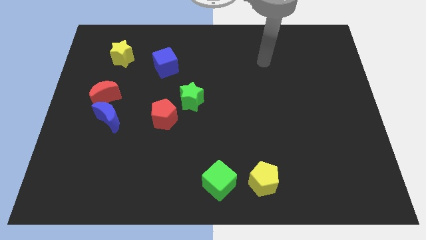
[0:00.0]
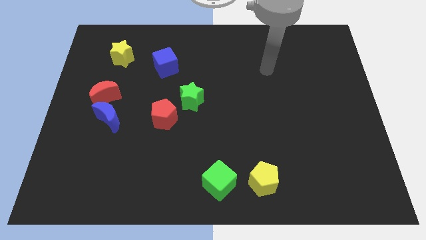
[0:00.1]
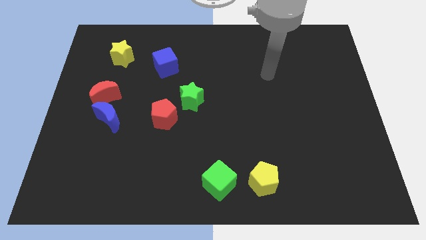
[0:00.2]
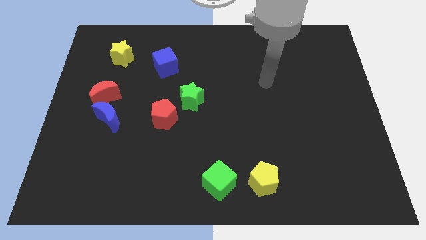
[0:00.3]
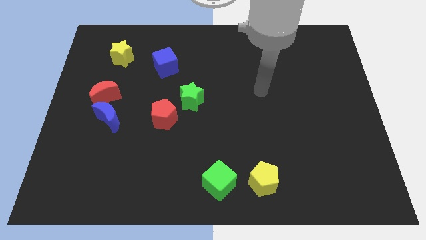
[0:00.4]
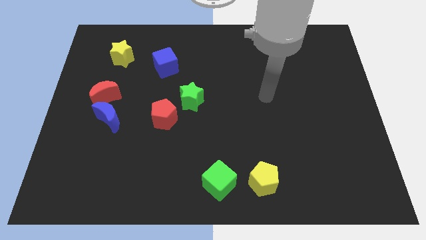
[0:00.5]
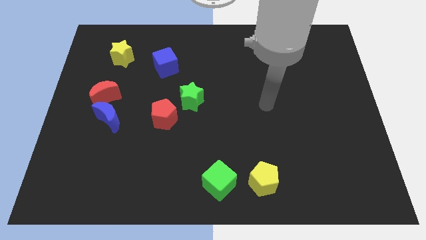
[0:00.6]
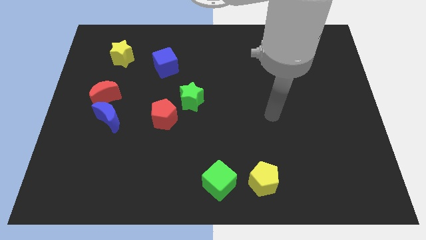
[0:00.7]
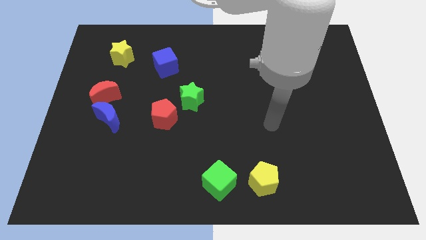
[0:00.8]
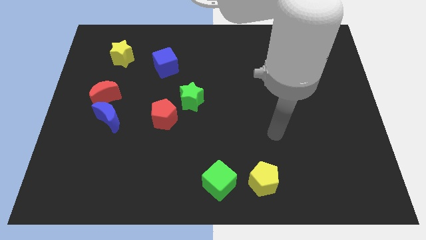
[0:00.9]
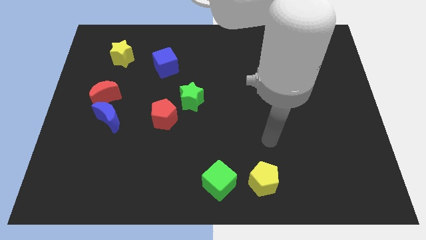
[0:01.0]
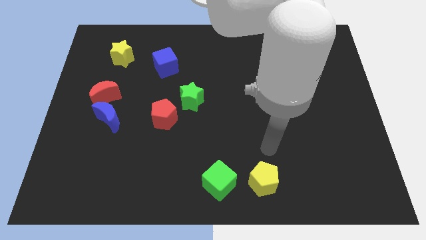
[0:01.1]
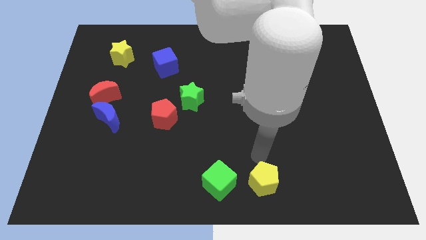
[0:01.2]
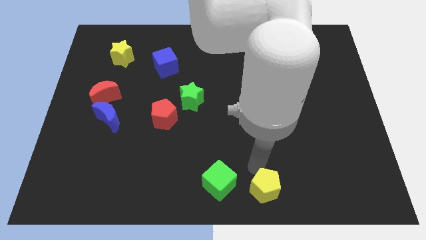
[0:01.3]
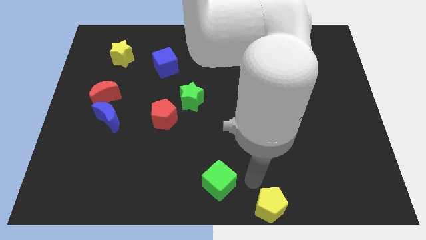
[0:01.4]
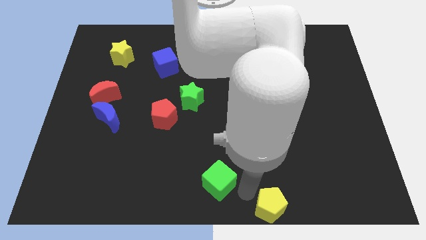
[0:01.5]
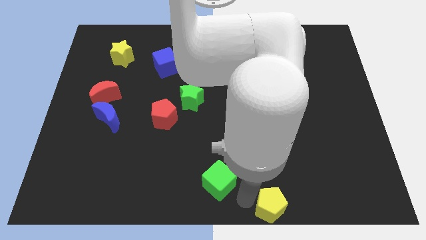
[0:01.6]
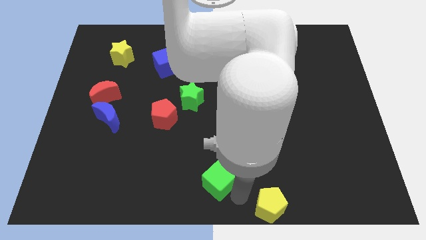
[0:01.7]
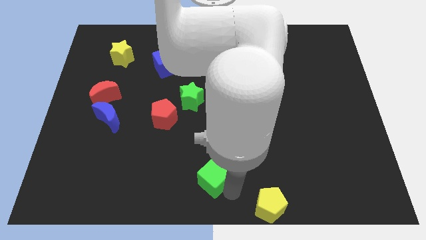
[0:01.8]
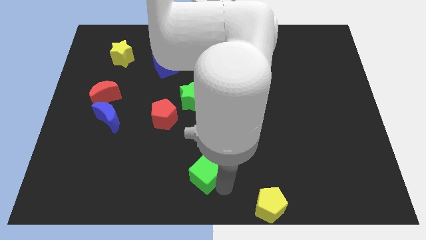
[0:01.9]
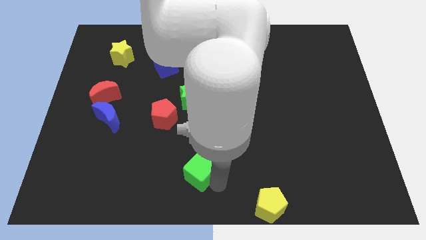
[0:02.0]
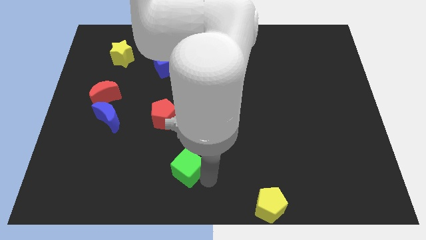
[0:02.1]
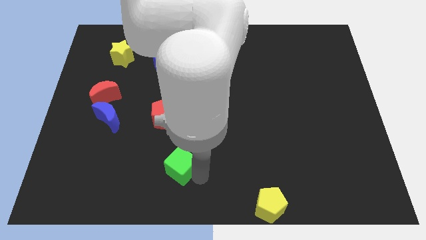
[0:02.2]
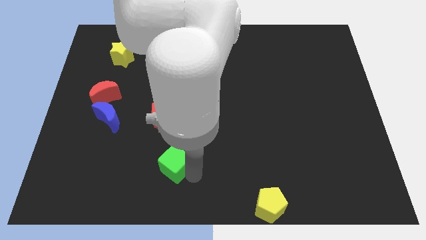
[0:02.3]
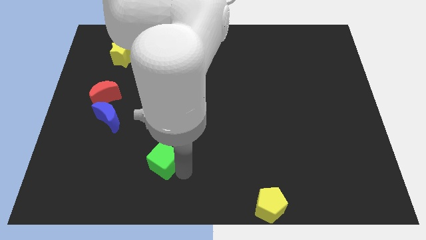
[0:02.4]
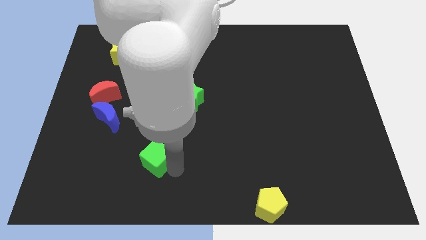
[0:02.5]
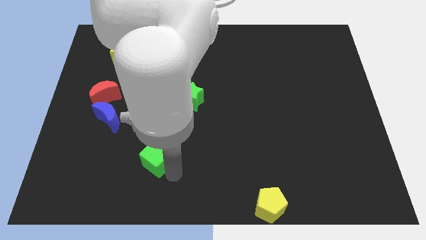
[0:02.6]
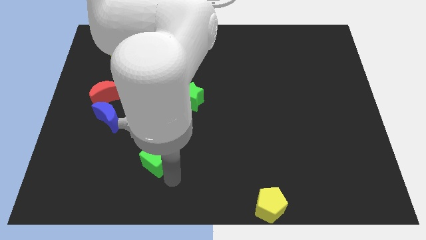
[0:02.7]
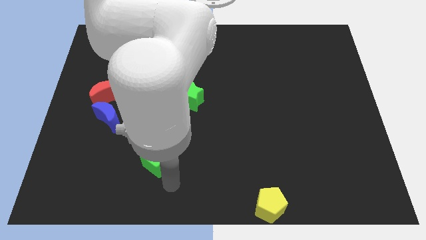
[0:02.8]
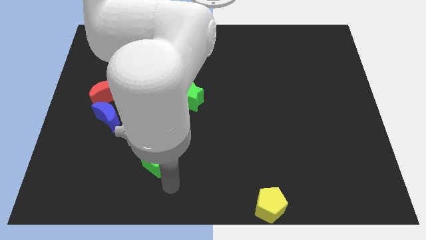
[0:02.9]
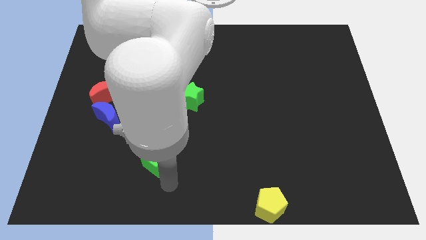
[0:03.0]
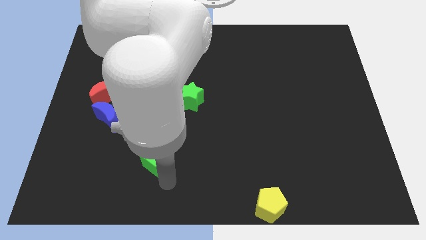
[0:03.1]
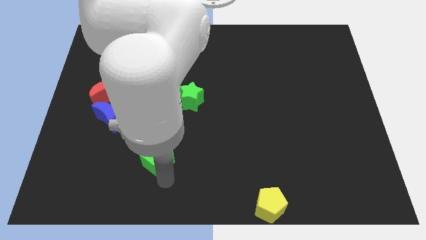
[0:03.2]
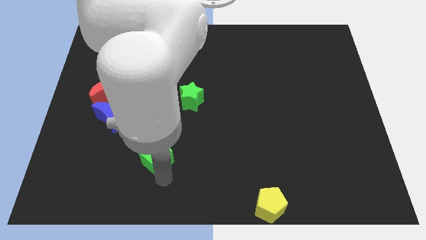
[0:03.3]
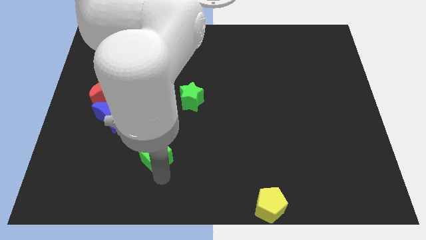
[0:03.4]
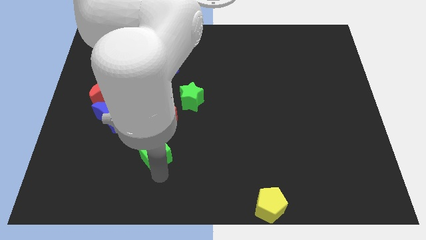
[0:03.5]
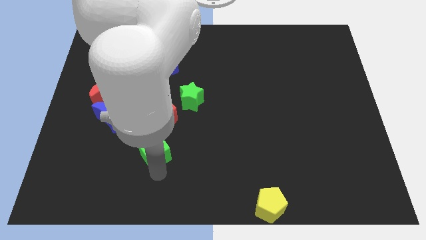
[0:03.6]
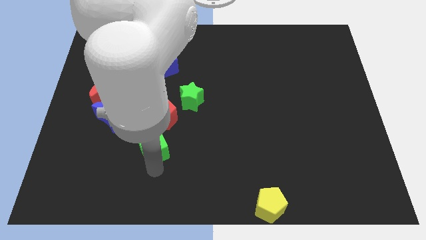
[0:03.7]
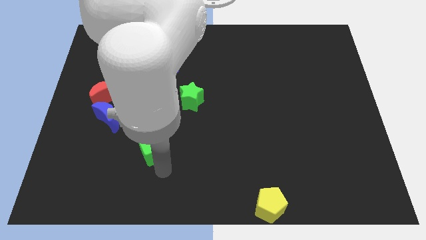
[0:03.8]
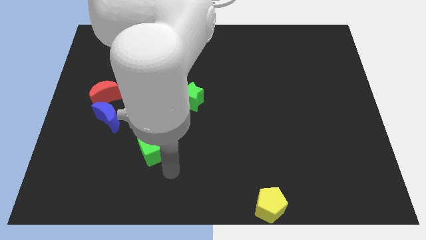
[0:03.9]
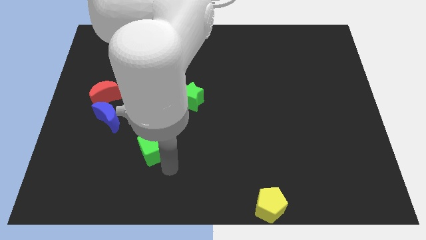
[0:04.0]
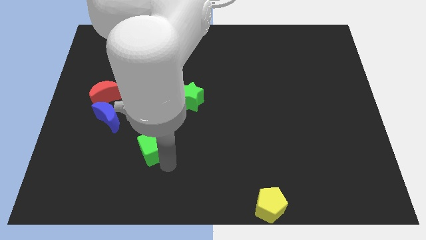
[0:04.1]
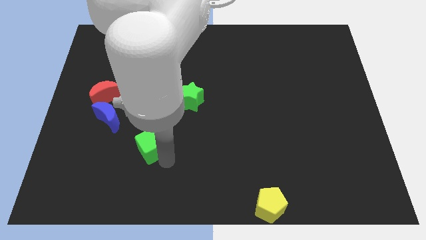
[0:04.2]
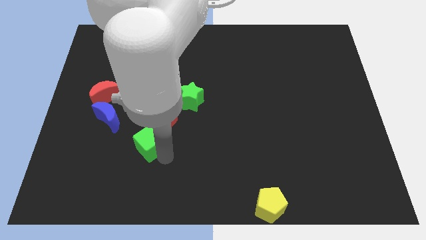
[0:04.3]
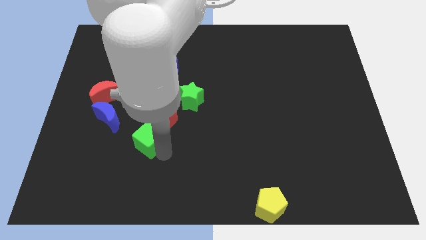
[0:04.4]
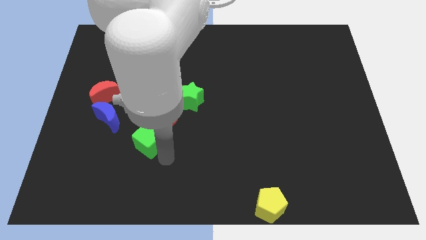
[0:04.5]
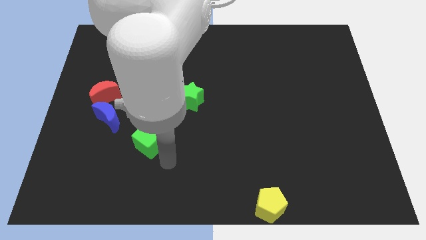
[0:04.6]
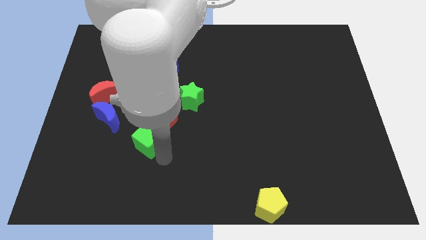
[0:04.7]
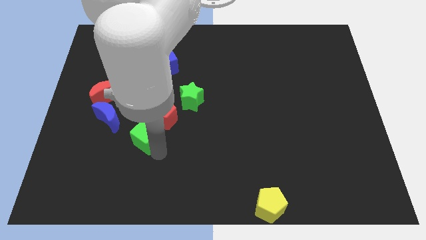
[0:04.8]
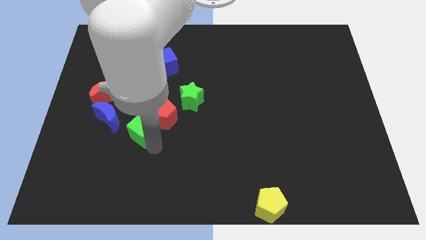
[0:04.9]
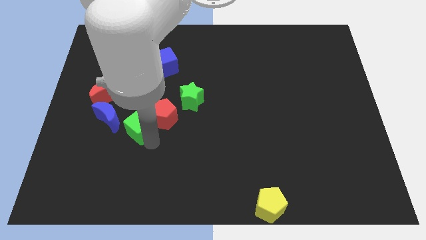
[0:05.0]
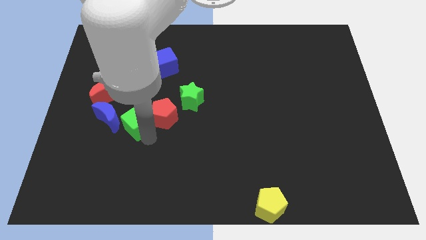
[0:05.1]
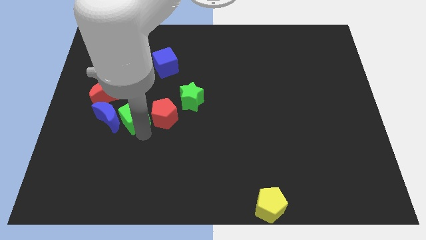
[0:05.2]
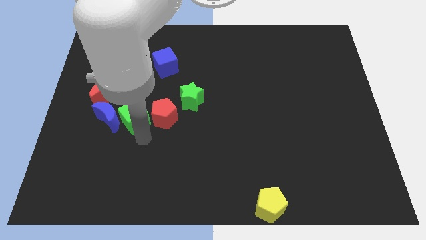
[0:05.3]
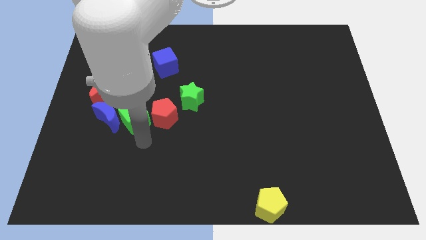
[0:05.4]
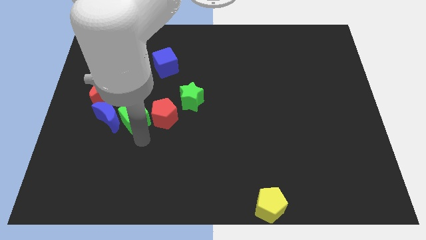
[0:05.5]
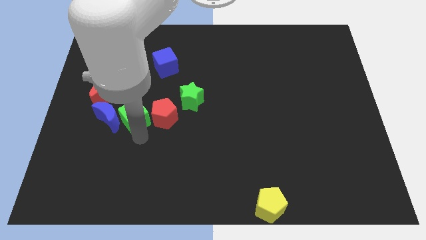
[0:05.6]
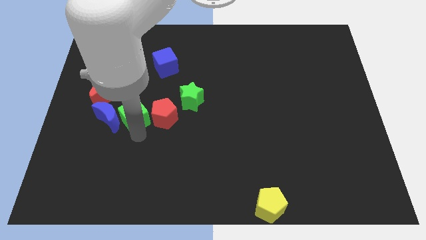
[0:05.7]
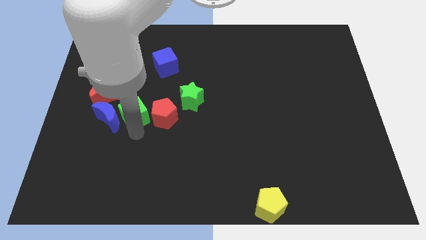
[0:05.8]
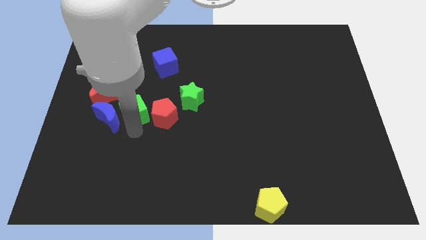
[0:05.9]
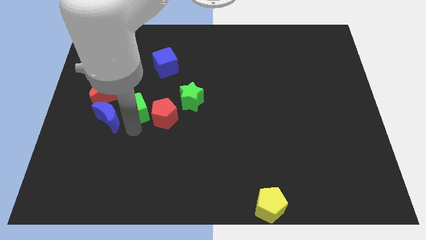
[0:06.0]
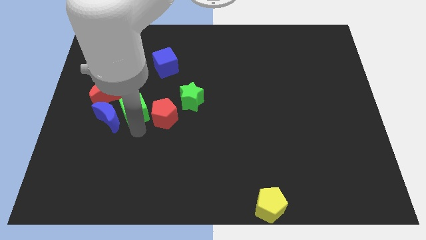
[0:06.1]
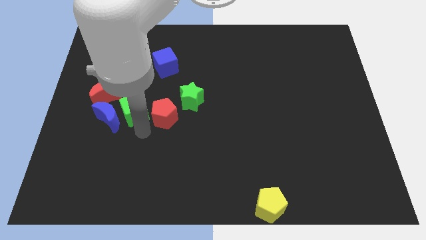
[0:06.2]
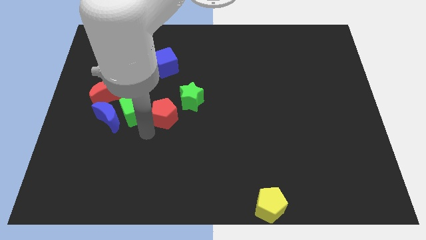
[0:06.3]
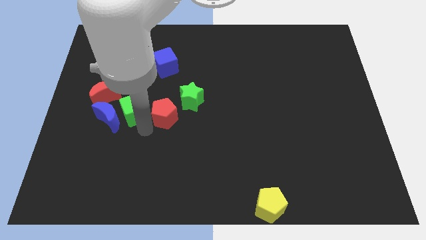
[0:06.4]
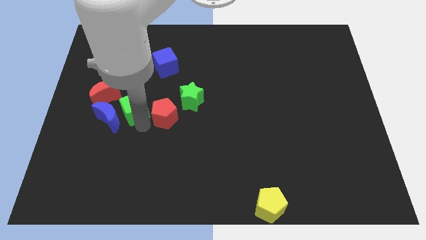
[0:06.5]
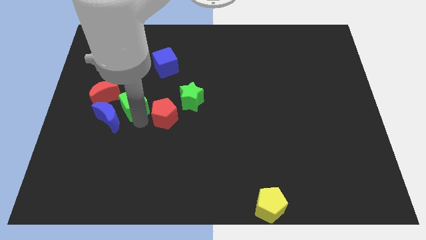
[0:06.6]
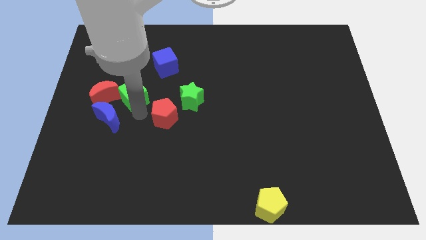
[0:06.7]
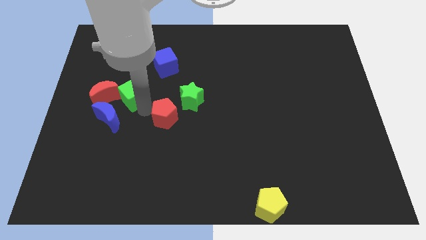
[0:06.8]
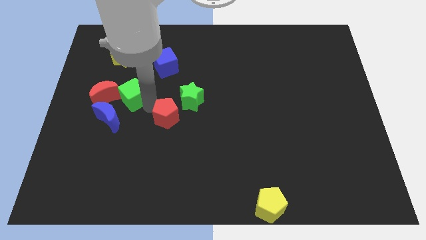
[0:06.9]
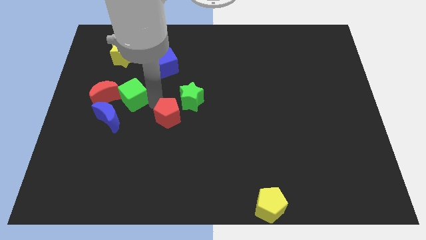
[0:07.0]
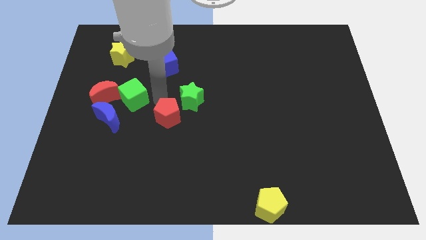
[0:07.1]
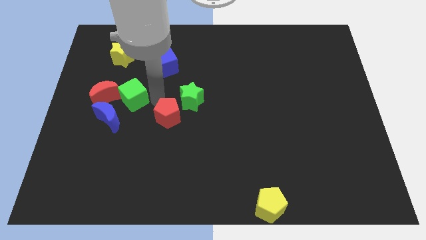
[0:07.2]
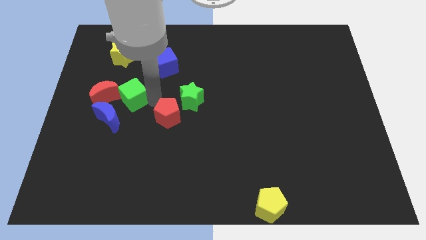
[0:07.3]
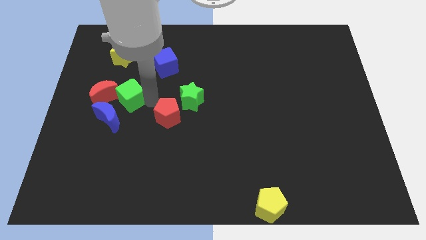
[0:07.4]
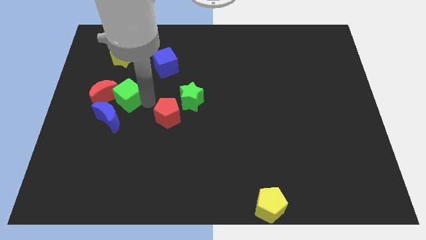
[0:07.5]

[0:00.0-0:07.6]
put the green cube towards the red moon
